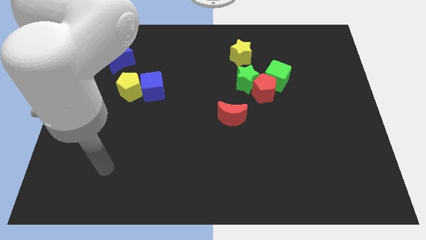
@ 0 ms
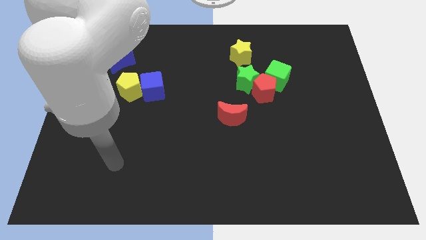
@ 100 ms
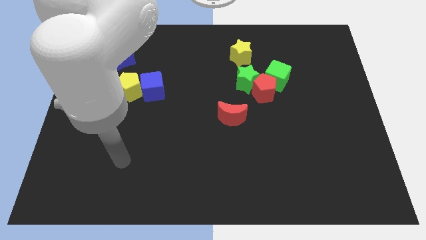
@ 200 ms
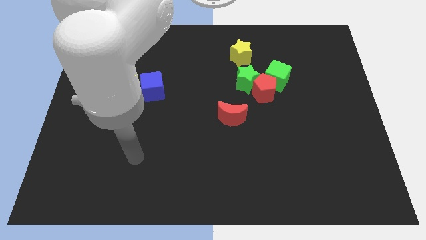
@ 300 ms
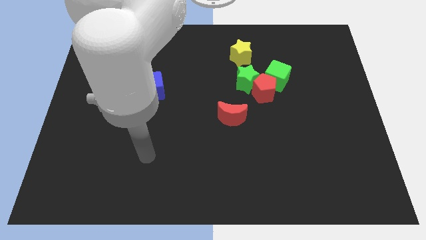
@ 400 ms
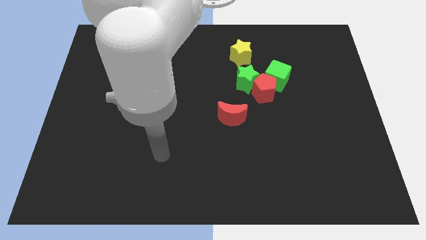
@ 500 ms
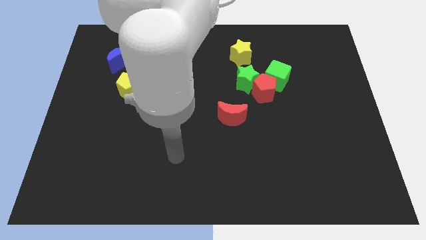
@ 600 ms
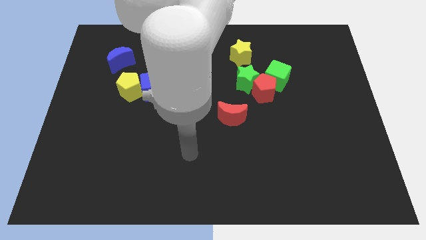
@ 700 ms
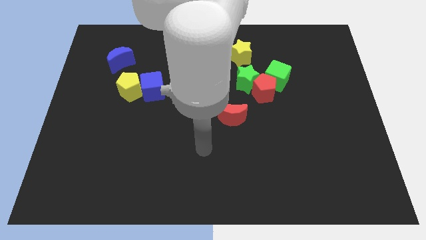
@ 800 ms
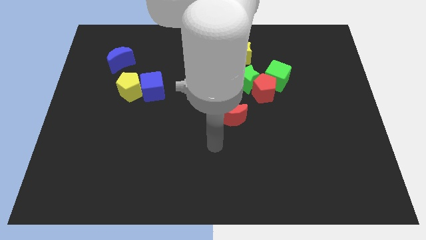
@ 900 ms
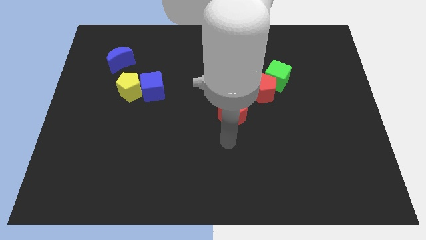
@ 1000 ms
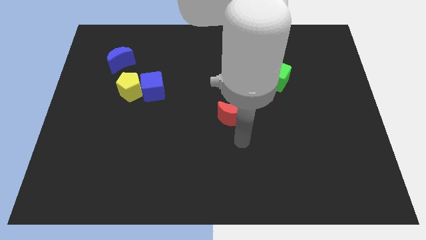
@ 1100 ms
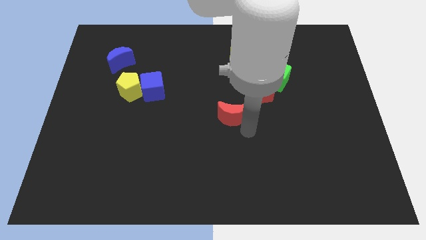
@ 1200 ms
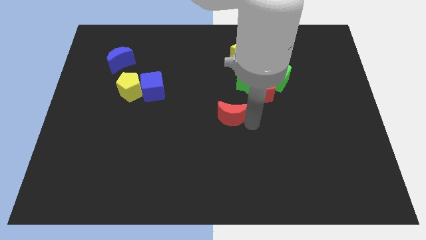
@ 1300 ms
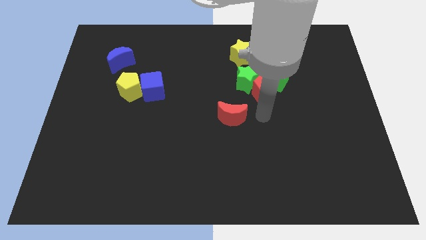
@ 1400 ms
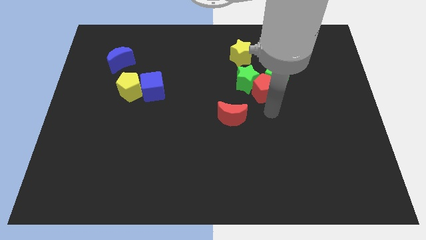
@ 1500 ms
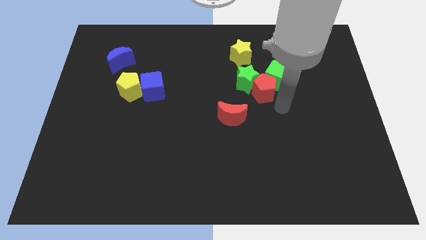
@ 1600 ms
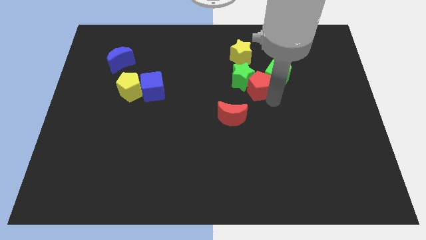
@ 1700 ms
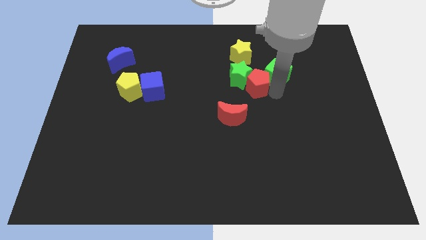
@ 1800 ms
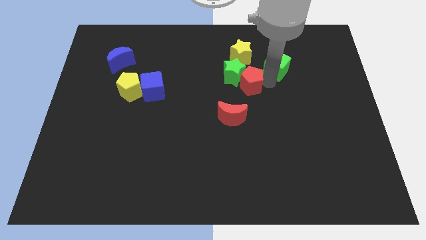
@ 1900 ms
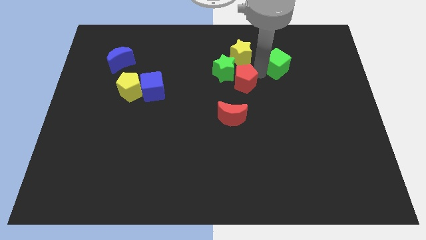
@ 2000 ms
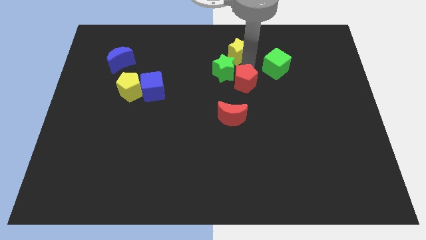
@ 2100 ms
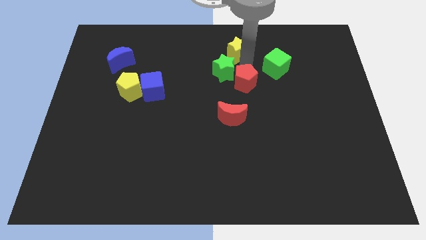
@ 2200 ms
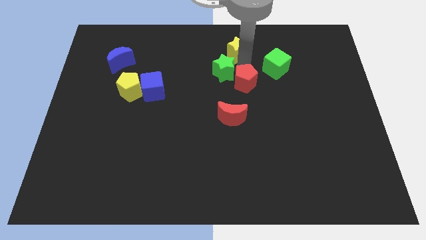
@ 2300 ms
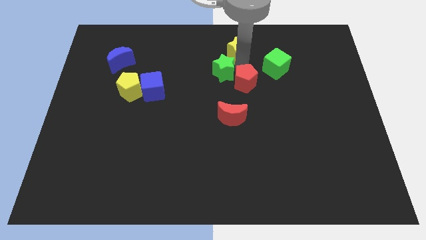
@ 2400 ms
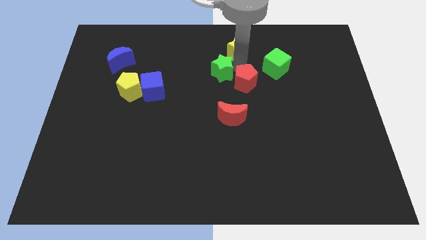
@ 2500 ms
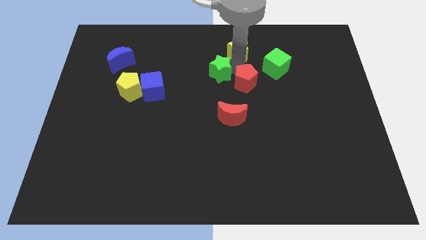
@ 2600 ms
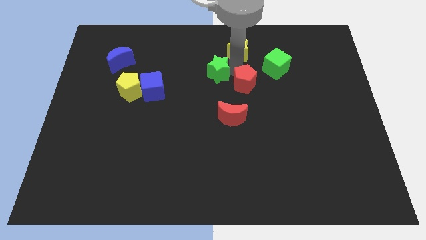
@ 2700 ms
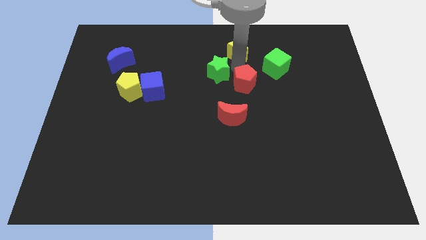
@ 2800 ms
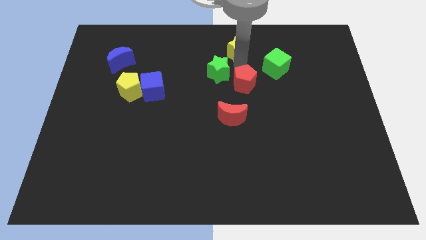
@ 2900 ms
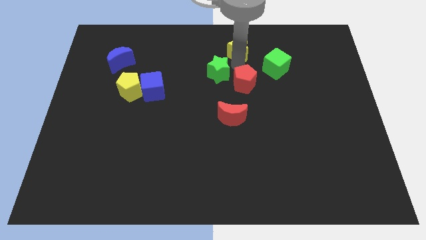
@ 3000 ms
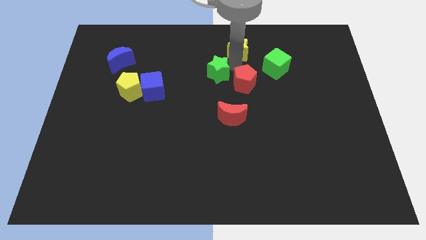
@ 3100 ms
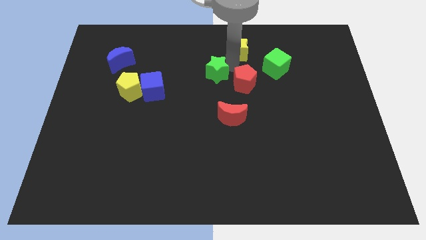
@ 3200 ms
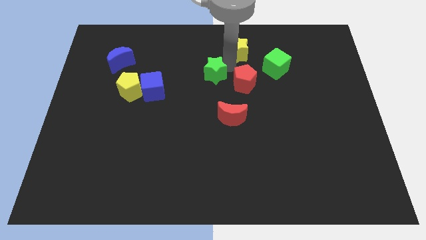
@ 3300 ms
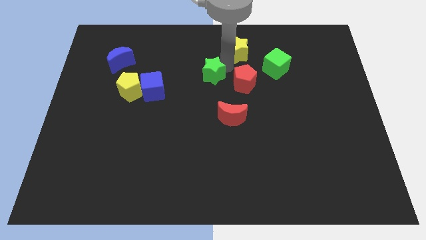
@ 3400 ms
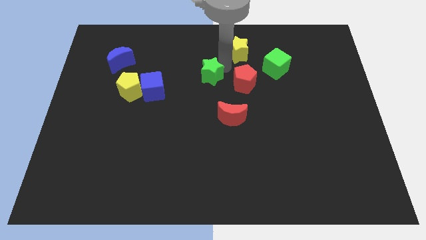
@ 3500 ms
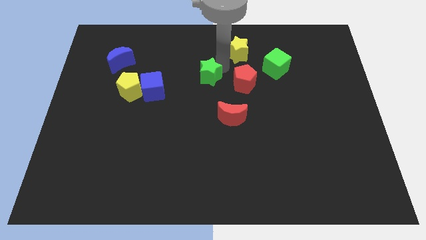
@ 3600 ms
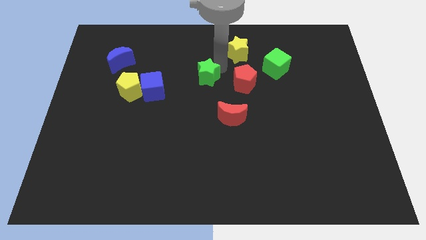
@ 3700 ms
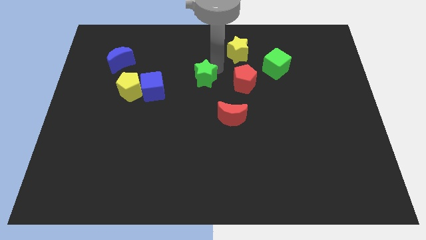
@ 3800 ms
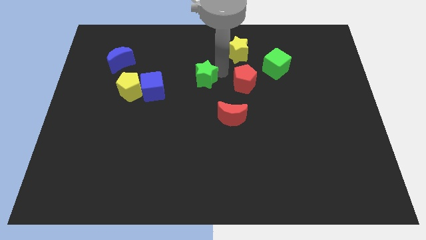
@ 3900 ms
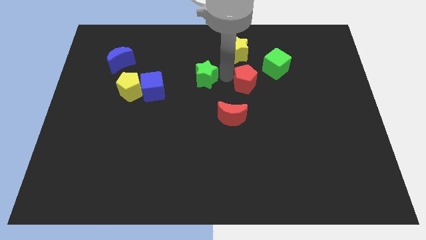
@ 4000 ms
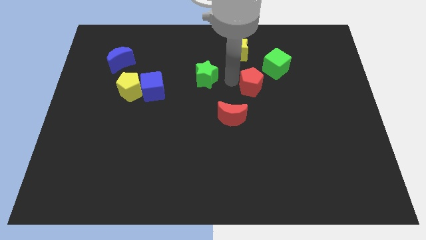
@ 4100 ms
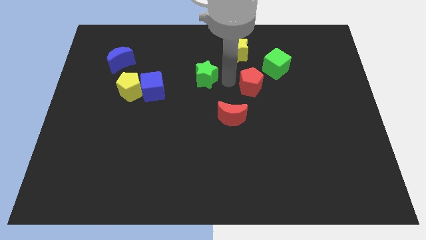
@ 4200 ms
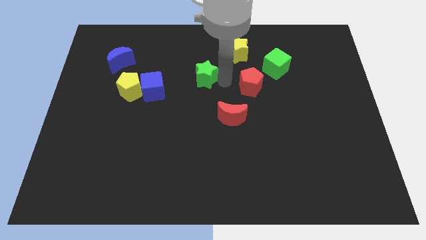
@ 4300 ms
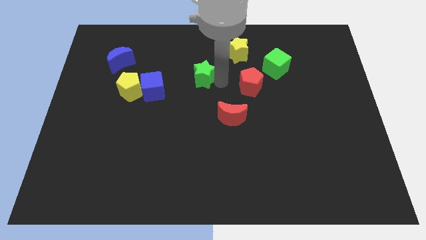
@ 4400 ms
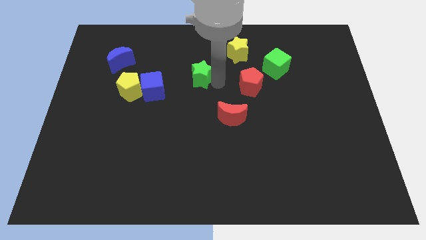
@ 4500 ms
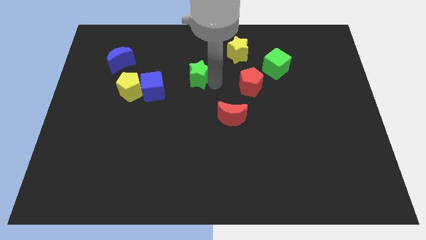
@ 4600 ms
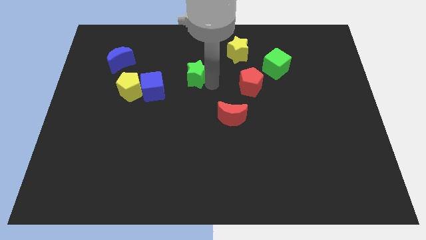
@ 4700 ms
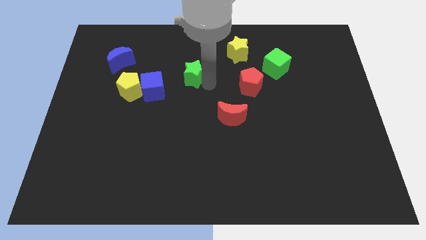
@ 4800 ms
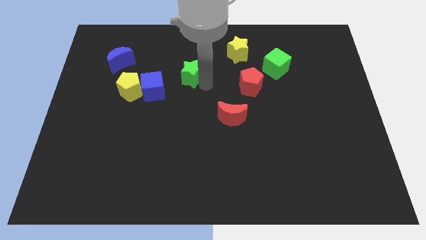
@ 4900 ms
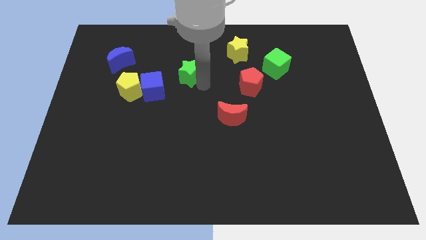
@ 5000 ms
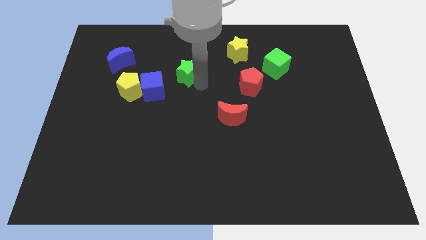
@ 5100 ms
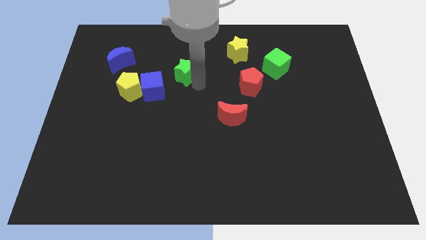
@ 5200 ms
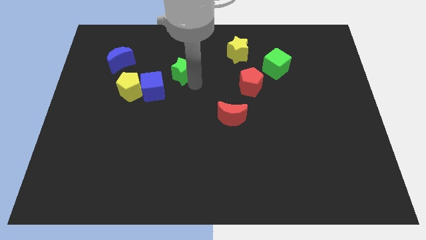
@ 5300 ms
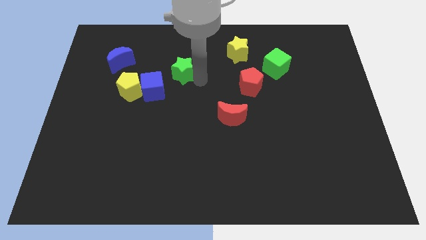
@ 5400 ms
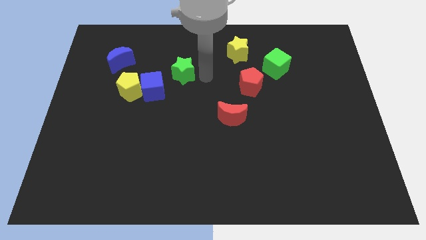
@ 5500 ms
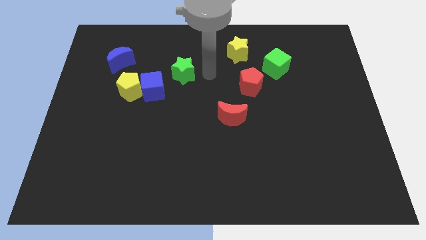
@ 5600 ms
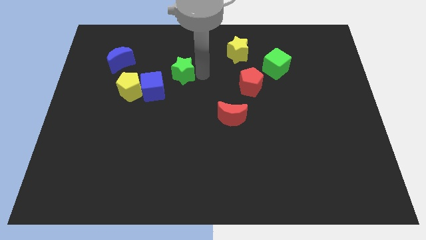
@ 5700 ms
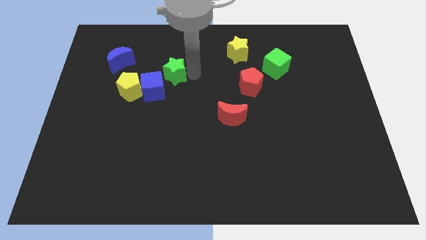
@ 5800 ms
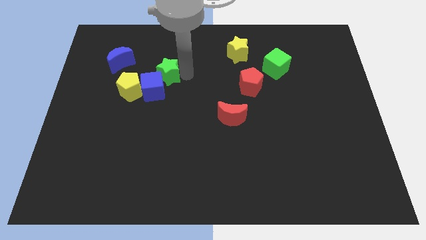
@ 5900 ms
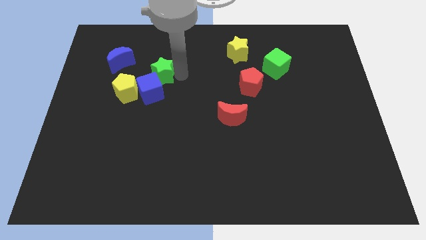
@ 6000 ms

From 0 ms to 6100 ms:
move the green star to the left

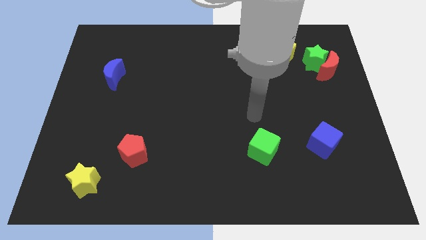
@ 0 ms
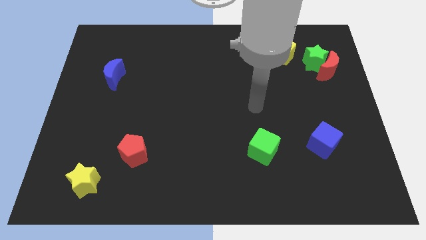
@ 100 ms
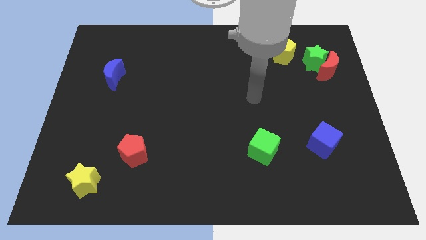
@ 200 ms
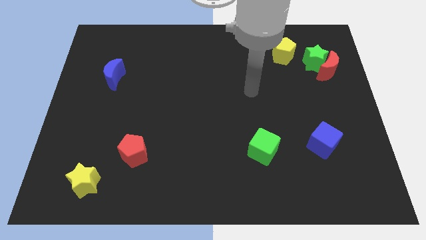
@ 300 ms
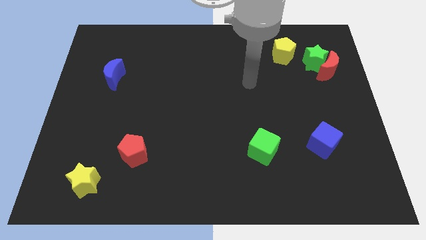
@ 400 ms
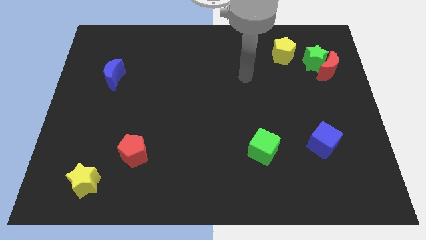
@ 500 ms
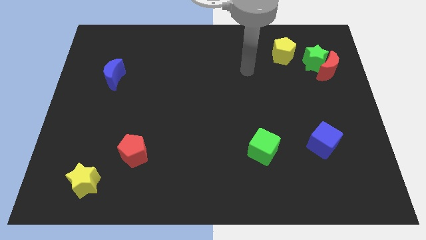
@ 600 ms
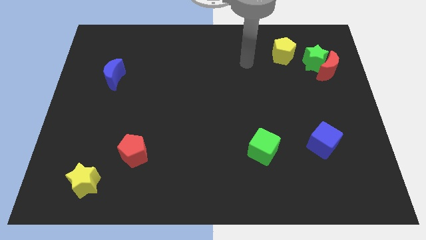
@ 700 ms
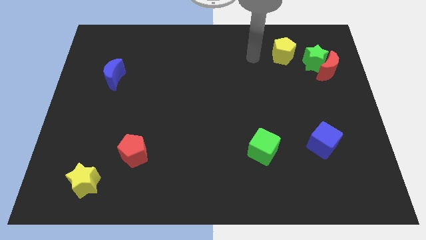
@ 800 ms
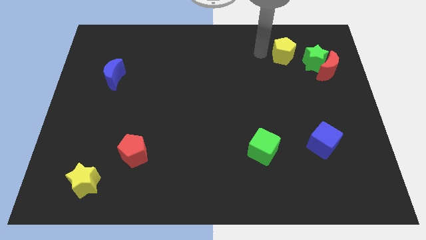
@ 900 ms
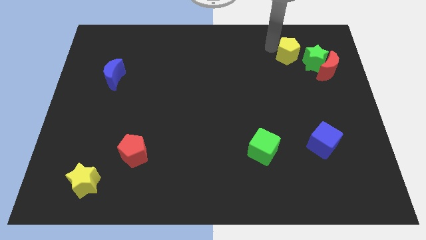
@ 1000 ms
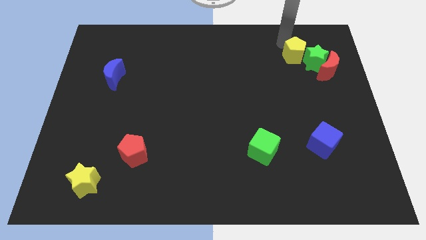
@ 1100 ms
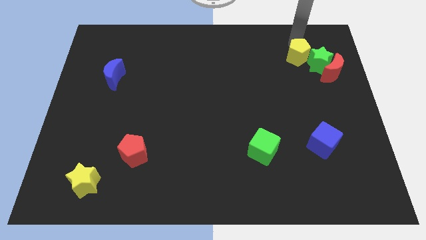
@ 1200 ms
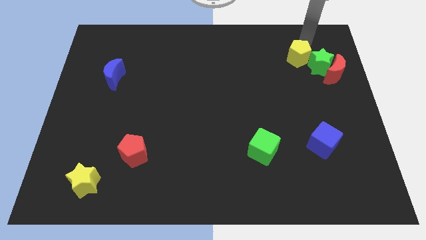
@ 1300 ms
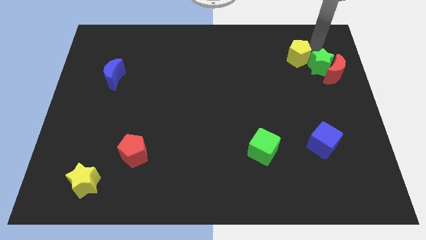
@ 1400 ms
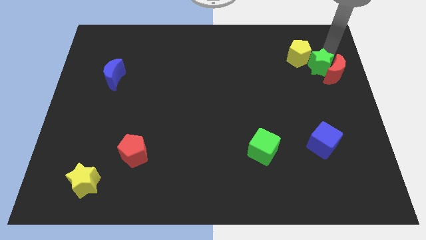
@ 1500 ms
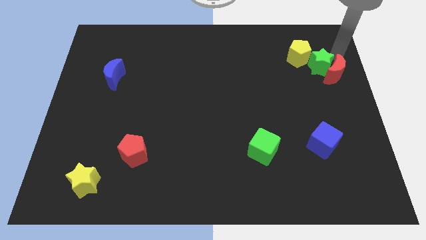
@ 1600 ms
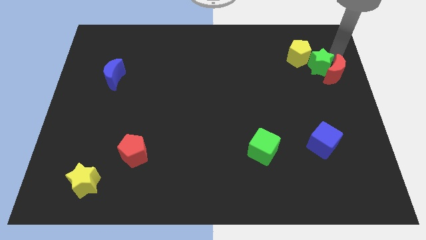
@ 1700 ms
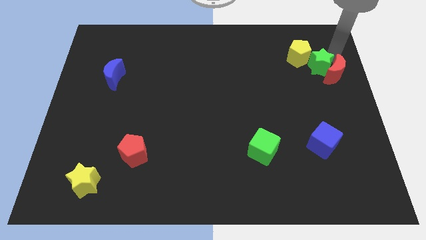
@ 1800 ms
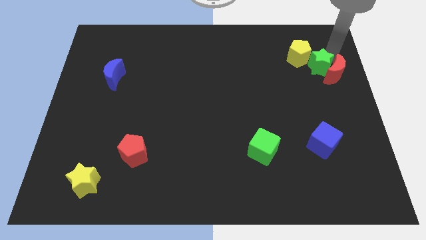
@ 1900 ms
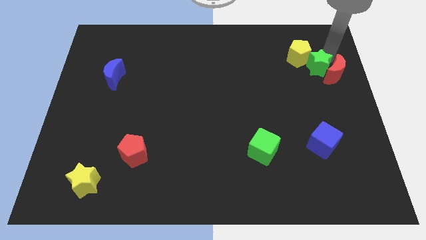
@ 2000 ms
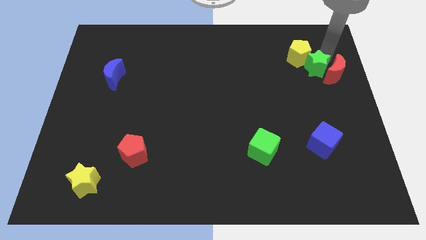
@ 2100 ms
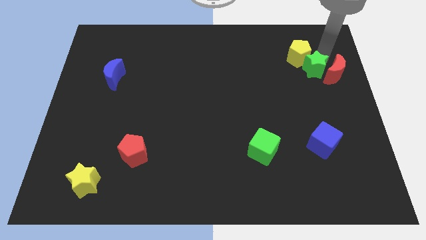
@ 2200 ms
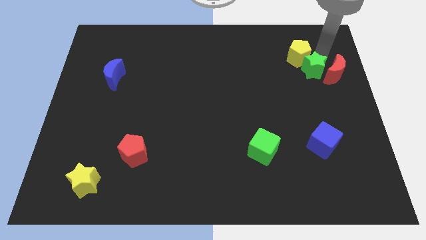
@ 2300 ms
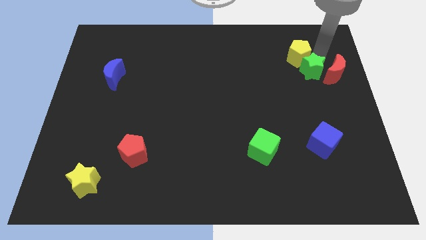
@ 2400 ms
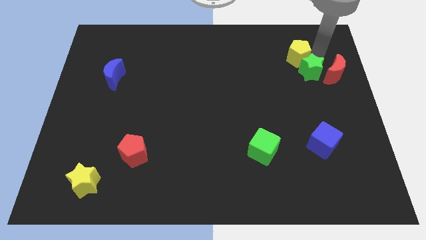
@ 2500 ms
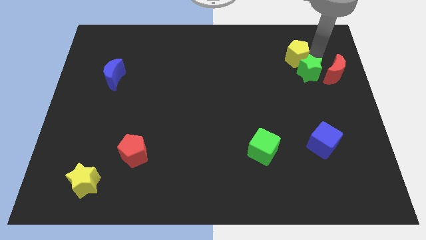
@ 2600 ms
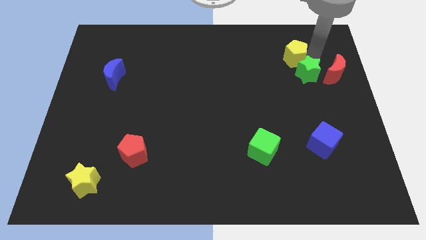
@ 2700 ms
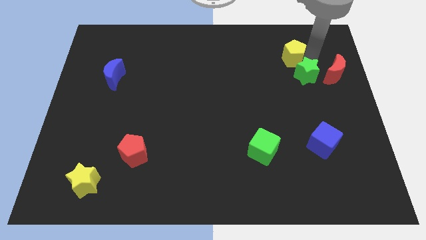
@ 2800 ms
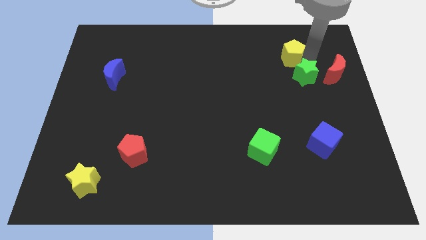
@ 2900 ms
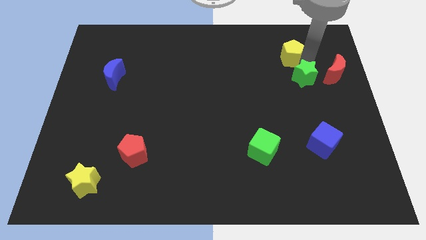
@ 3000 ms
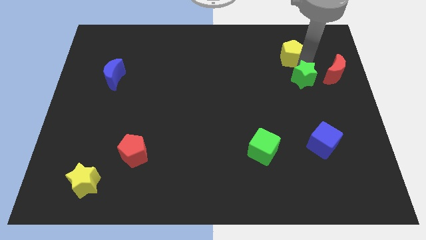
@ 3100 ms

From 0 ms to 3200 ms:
slide the green star down and left a bit
